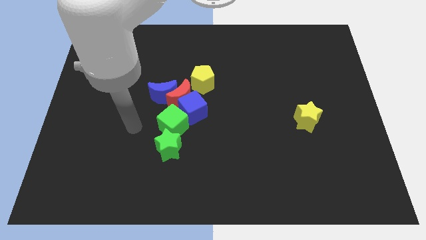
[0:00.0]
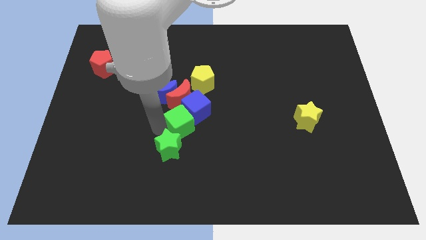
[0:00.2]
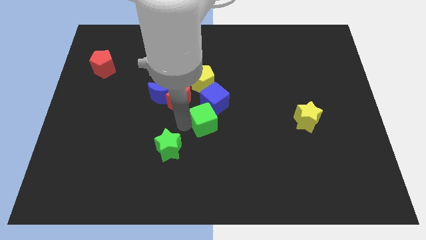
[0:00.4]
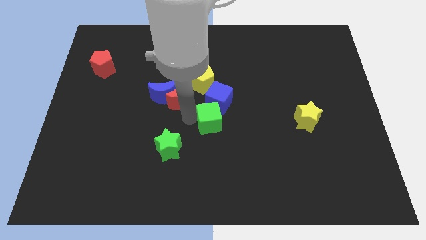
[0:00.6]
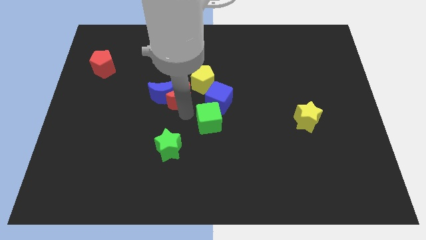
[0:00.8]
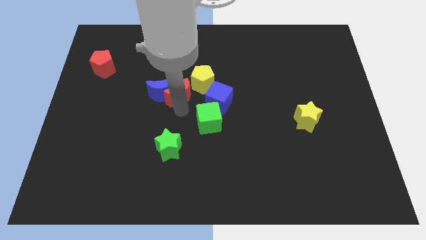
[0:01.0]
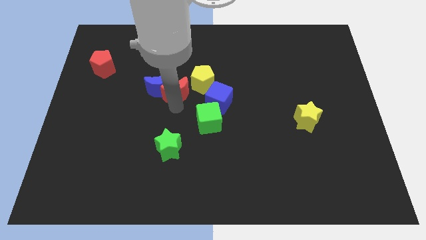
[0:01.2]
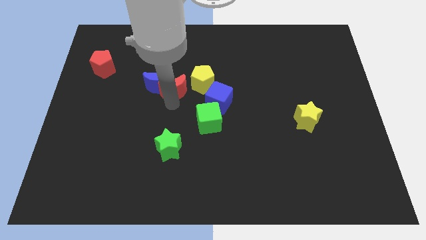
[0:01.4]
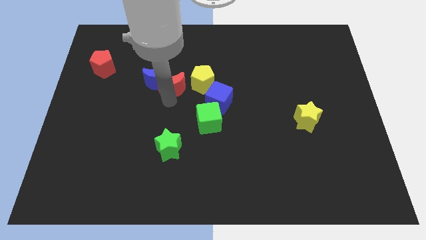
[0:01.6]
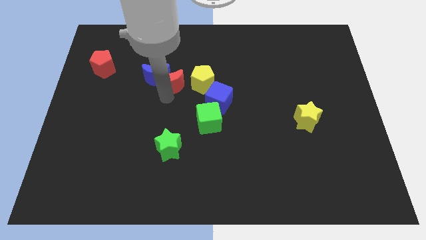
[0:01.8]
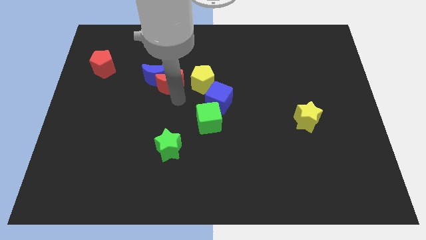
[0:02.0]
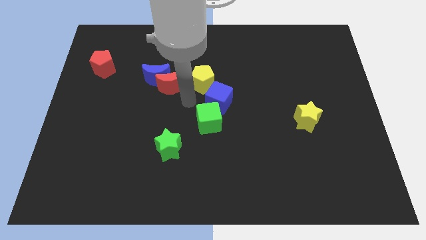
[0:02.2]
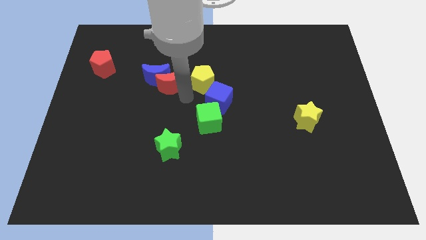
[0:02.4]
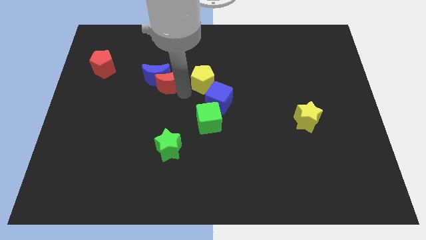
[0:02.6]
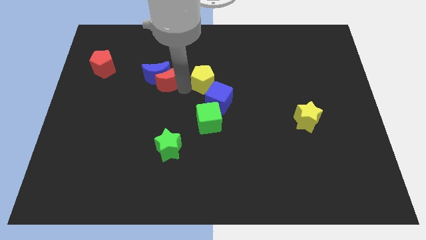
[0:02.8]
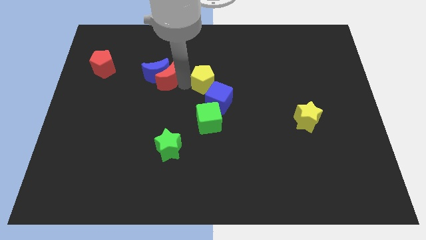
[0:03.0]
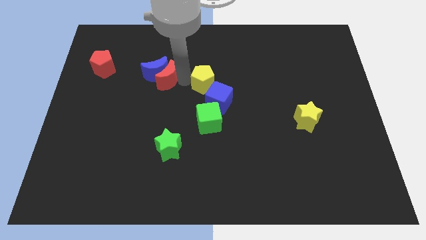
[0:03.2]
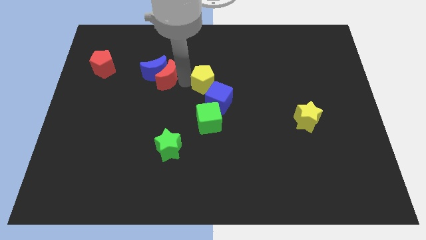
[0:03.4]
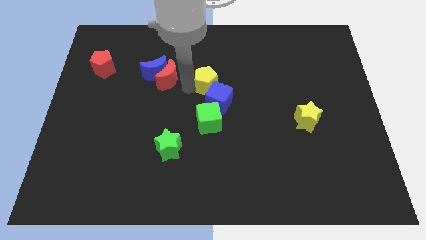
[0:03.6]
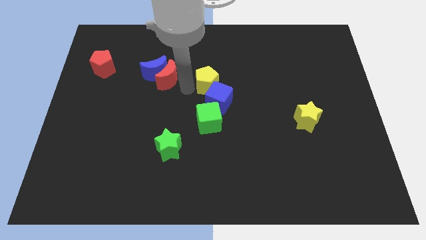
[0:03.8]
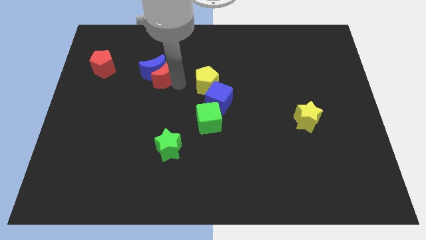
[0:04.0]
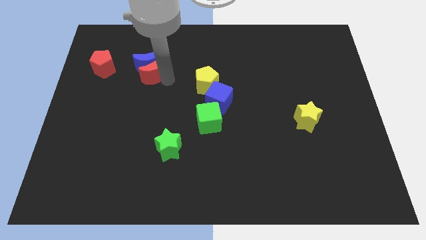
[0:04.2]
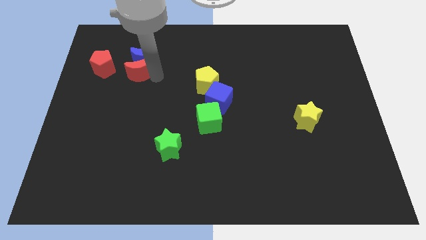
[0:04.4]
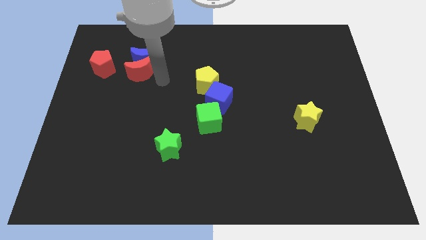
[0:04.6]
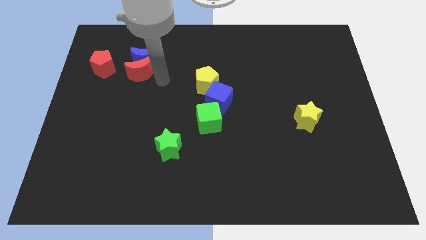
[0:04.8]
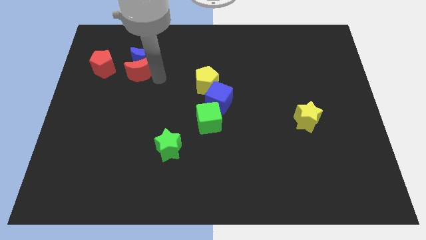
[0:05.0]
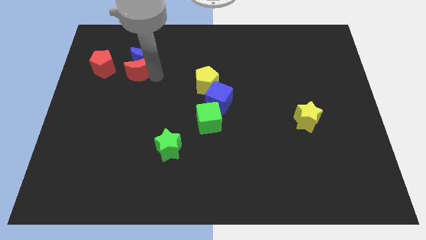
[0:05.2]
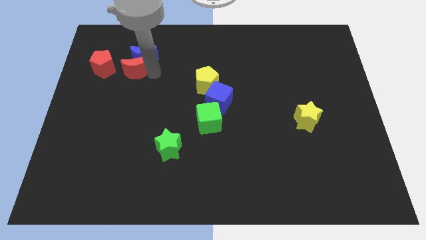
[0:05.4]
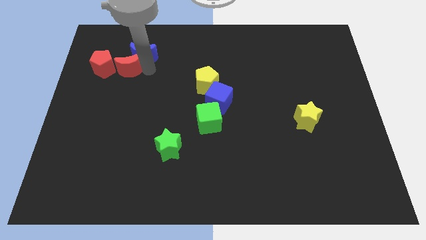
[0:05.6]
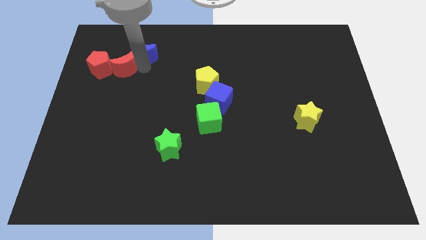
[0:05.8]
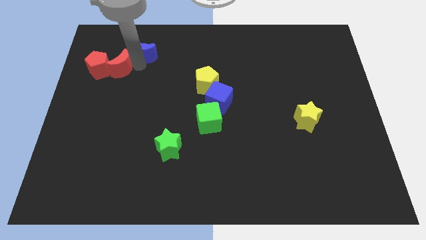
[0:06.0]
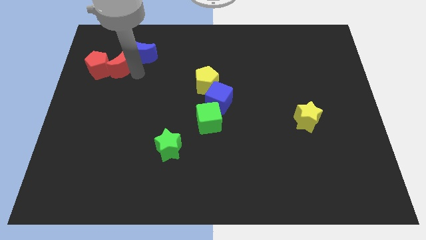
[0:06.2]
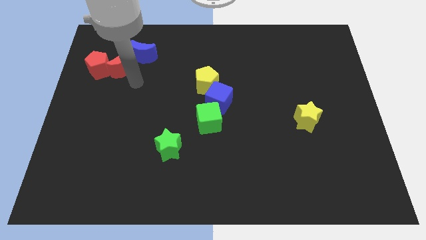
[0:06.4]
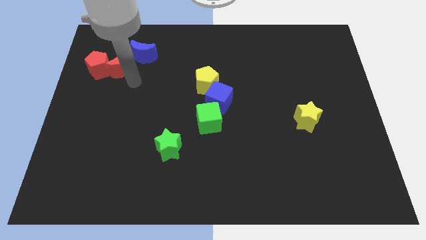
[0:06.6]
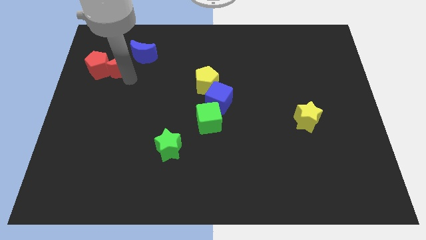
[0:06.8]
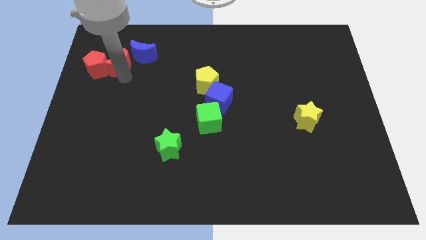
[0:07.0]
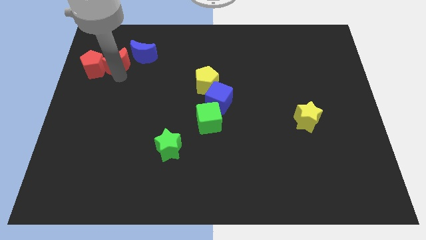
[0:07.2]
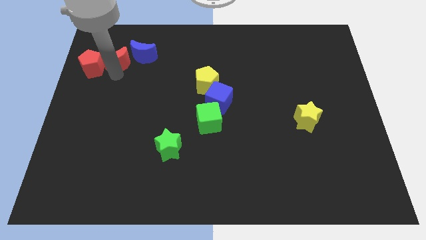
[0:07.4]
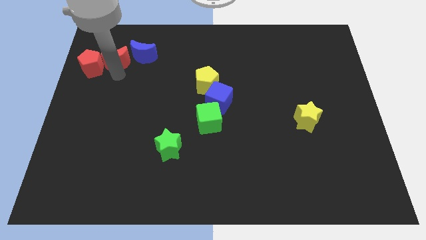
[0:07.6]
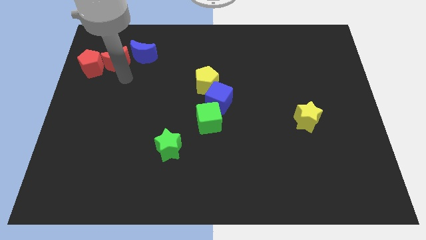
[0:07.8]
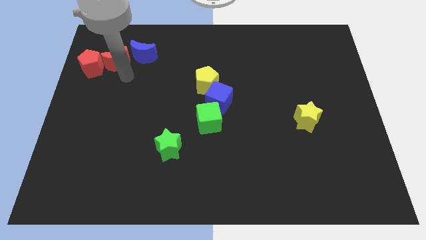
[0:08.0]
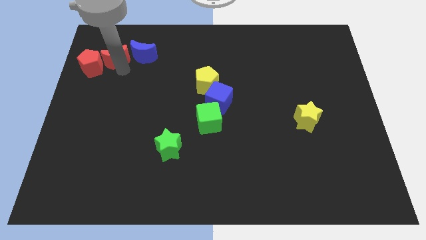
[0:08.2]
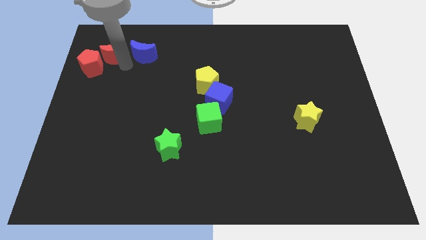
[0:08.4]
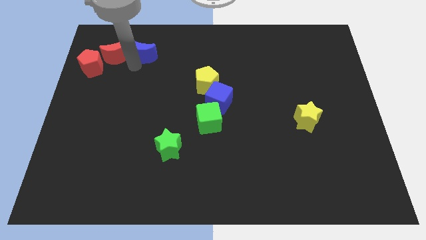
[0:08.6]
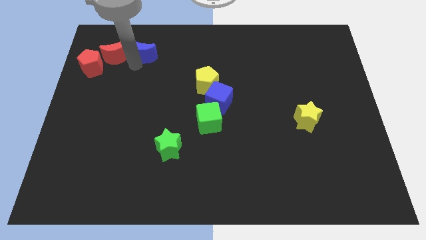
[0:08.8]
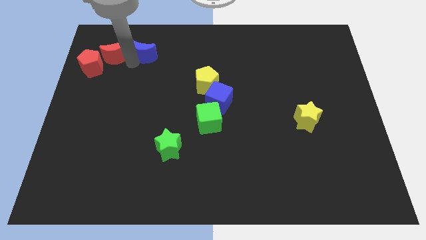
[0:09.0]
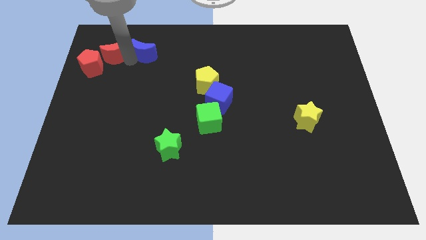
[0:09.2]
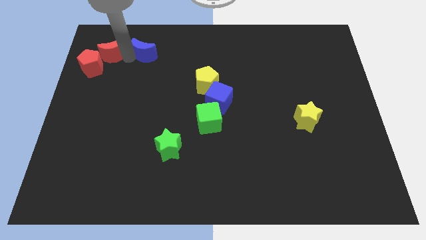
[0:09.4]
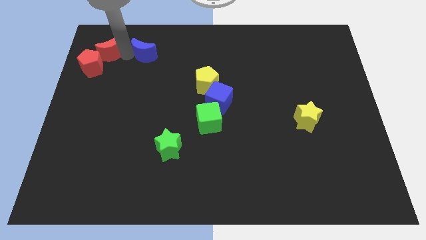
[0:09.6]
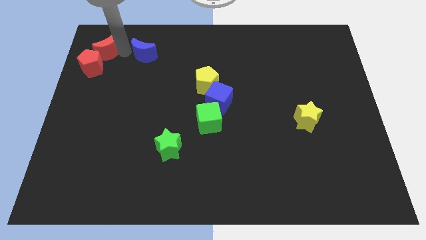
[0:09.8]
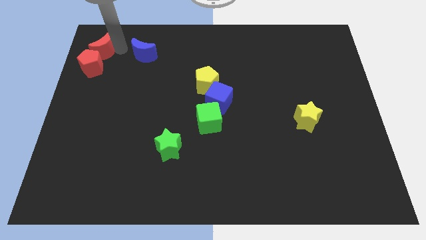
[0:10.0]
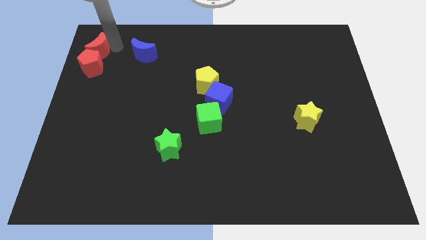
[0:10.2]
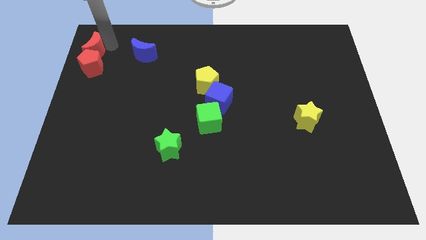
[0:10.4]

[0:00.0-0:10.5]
move the red moon to the upper left corner

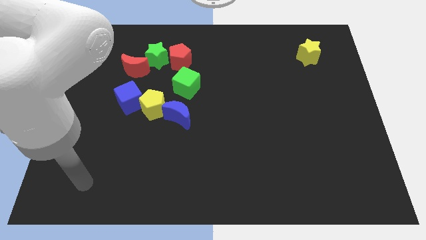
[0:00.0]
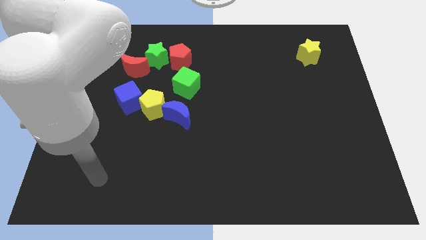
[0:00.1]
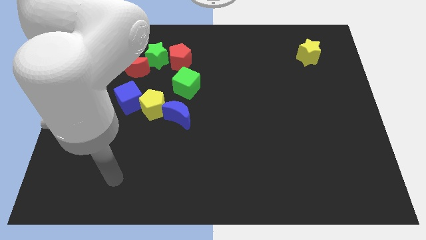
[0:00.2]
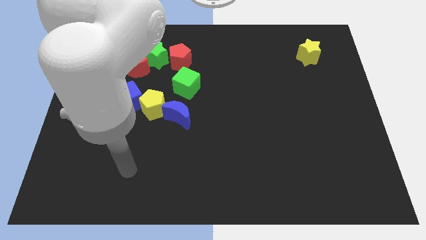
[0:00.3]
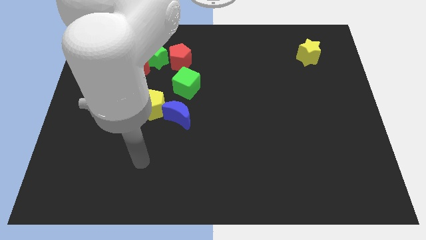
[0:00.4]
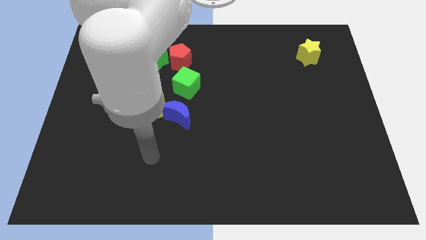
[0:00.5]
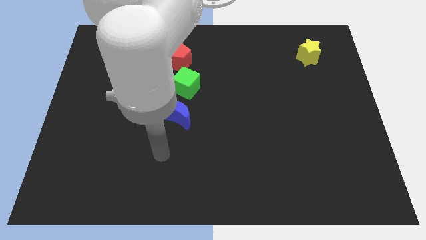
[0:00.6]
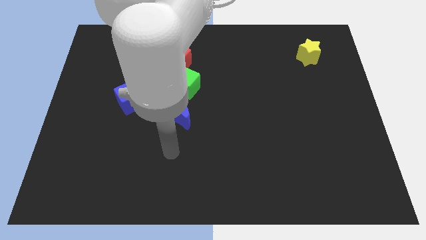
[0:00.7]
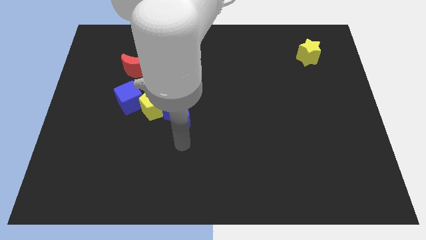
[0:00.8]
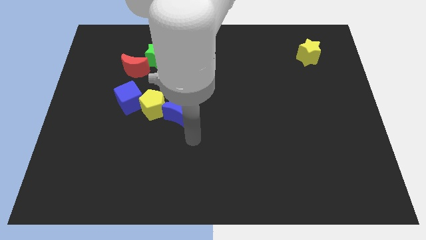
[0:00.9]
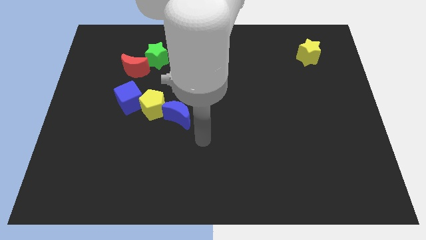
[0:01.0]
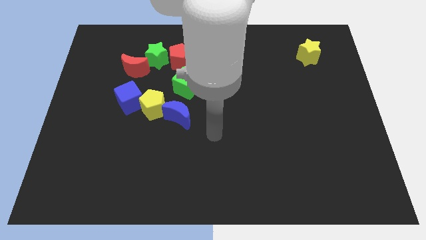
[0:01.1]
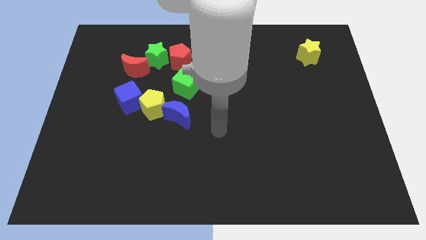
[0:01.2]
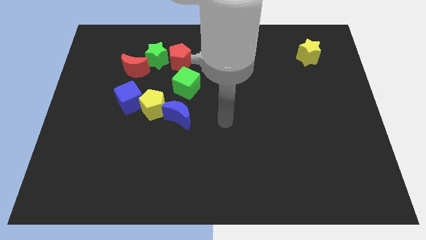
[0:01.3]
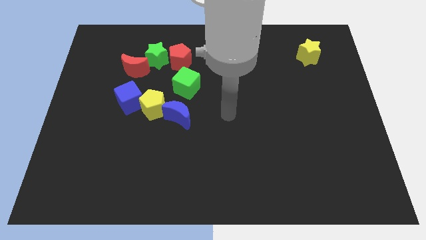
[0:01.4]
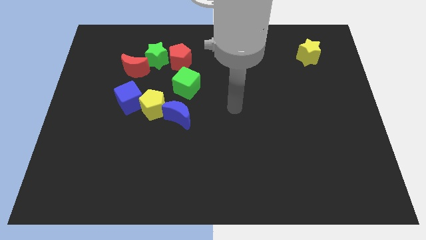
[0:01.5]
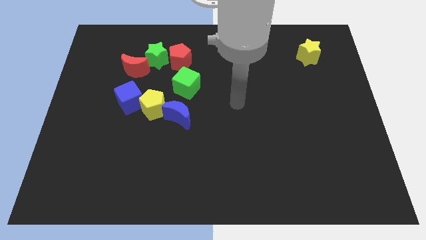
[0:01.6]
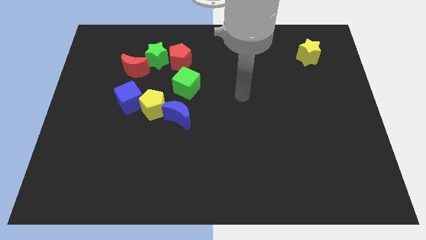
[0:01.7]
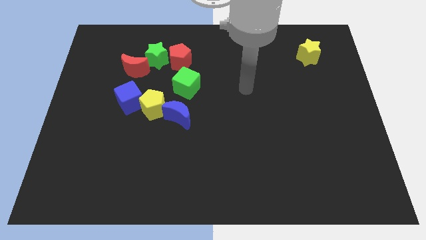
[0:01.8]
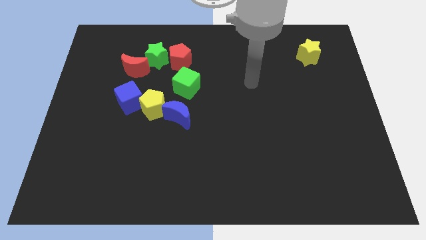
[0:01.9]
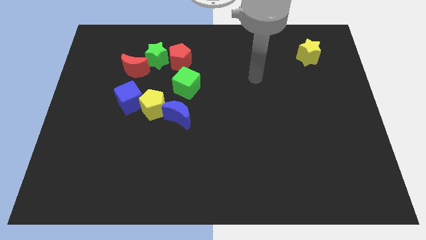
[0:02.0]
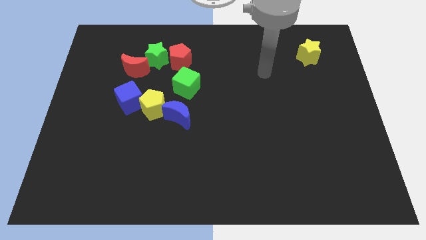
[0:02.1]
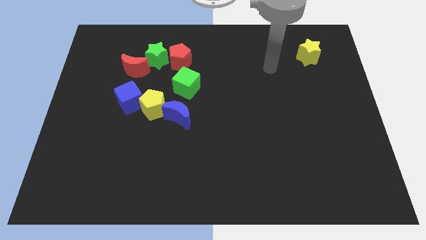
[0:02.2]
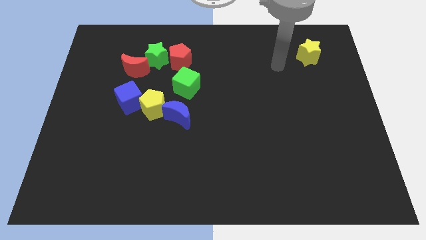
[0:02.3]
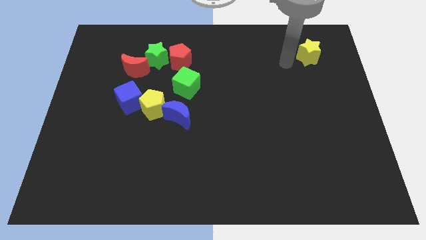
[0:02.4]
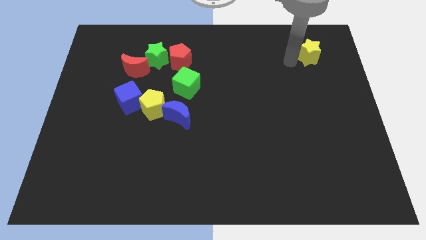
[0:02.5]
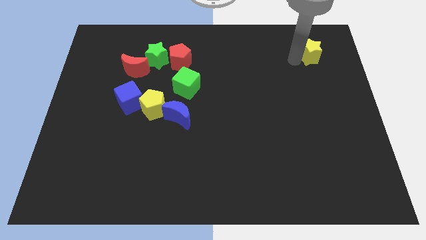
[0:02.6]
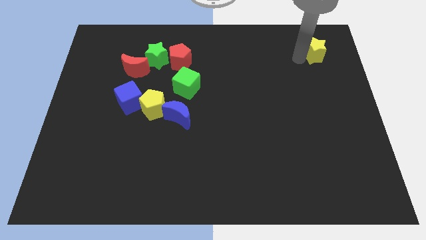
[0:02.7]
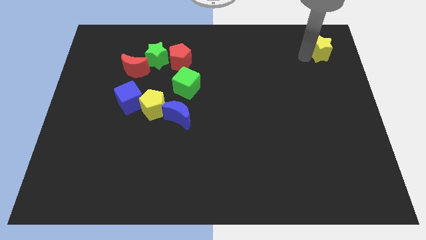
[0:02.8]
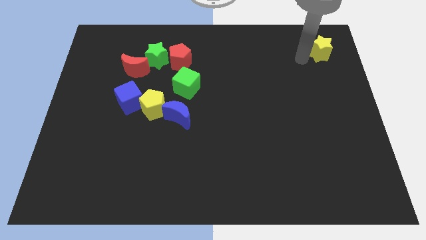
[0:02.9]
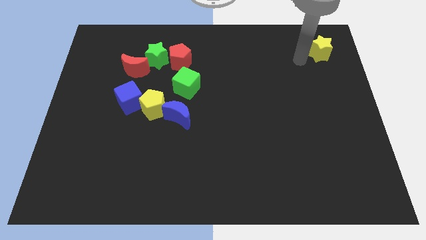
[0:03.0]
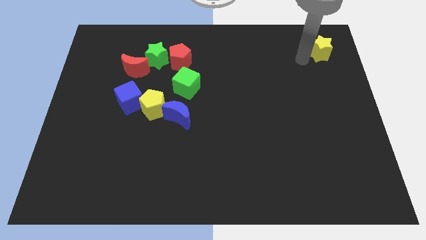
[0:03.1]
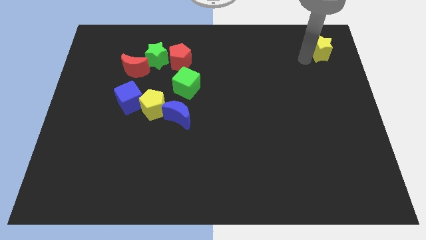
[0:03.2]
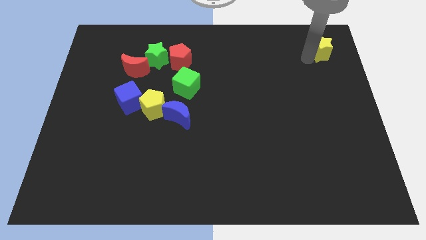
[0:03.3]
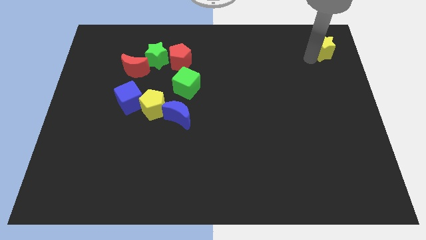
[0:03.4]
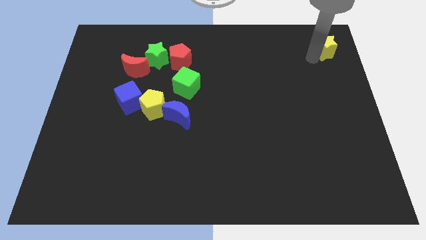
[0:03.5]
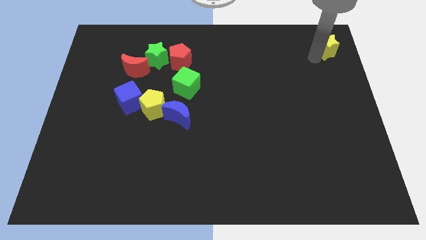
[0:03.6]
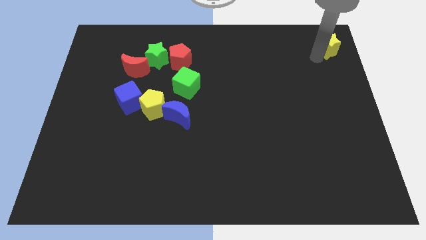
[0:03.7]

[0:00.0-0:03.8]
move the yellow star to the top right
